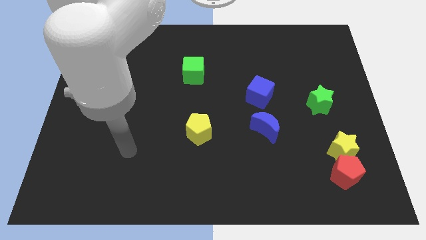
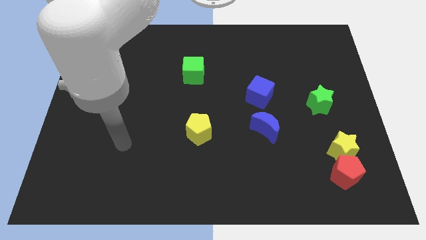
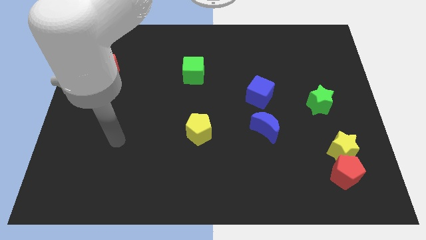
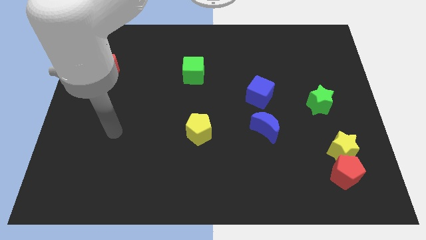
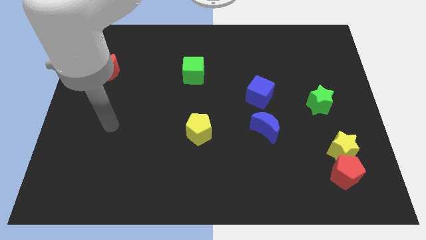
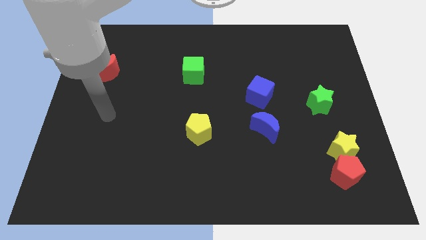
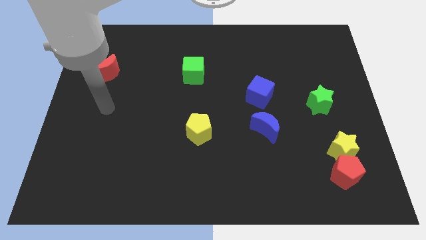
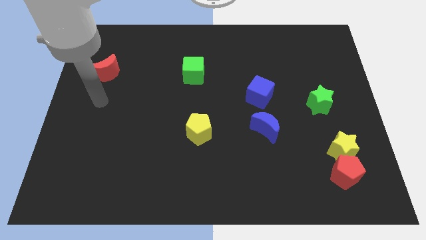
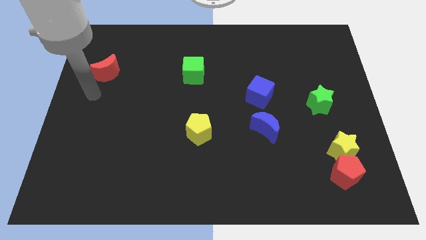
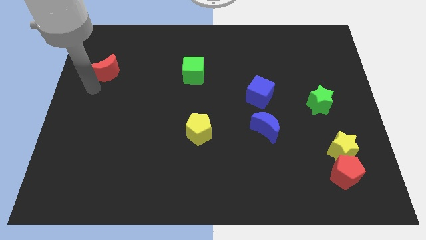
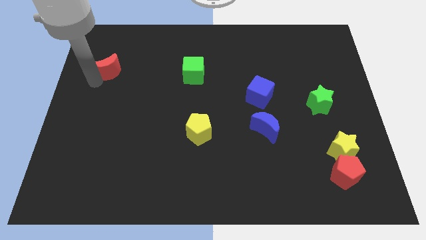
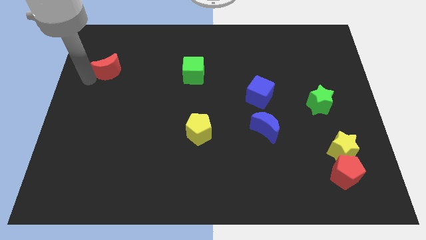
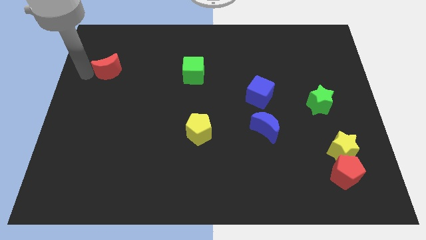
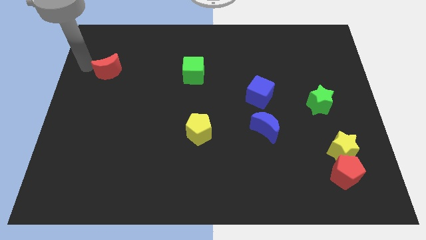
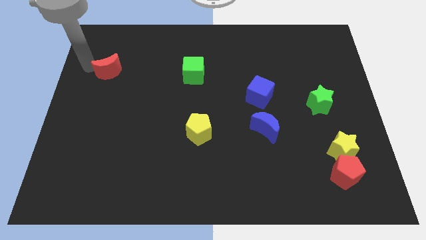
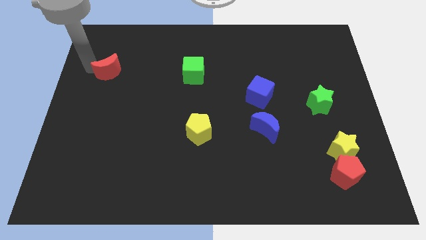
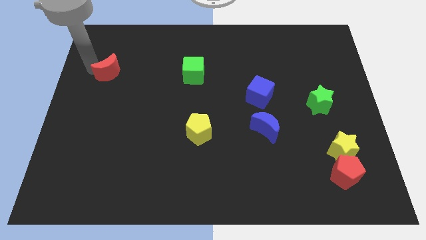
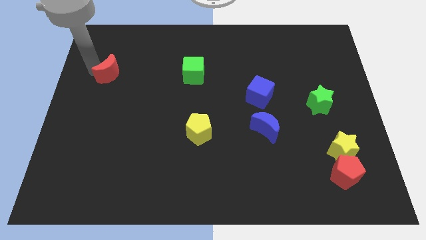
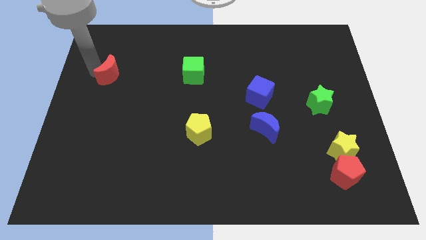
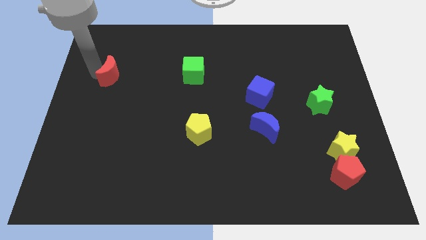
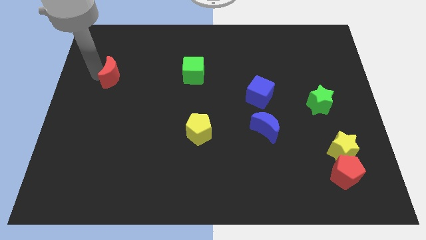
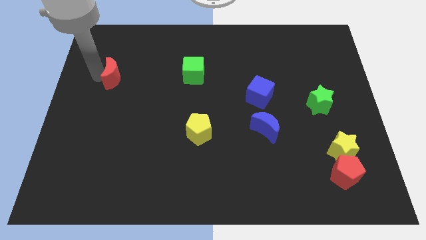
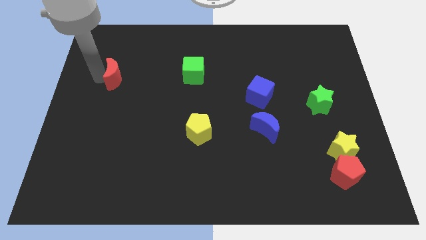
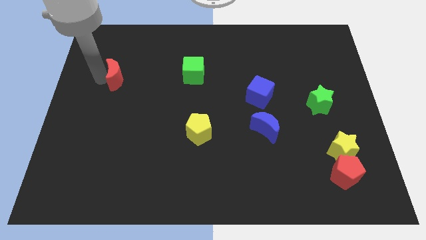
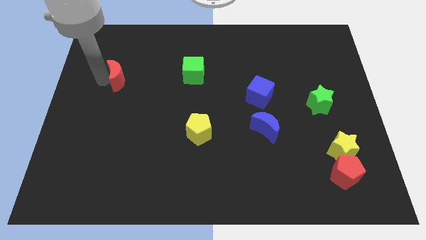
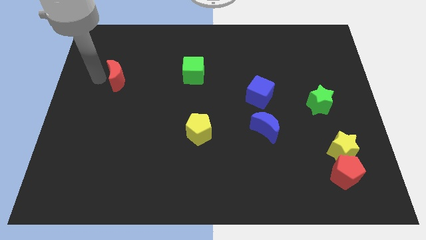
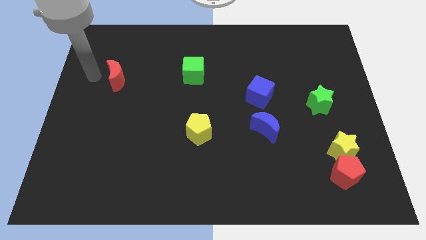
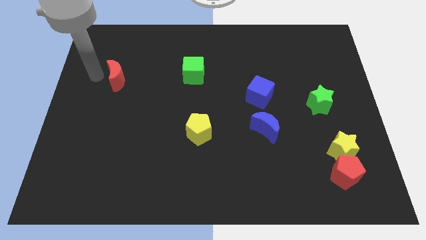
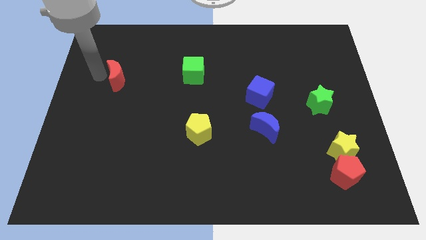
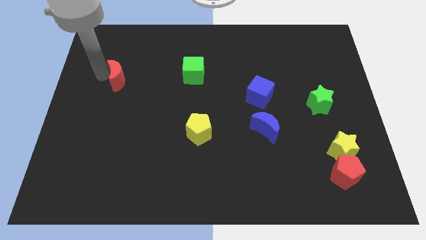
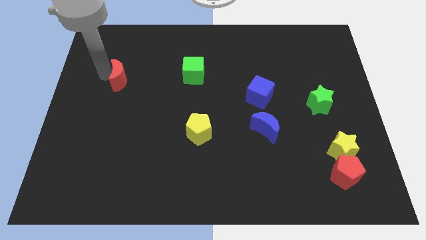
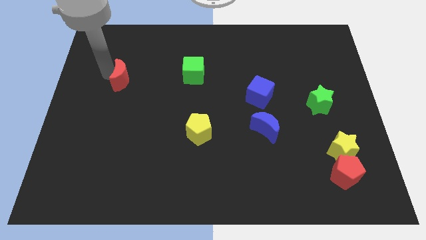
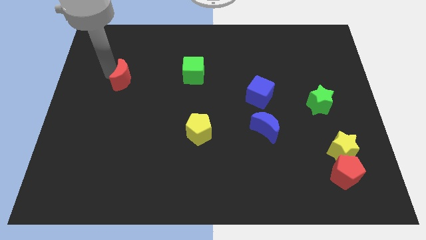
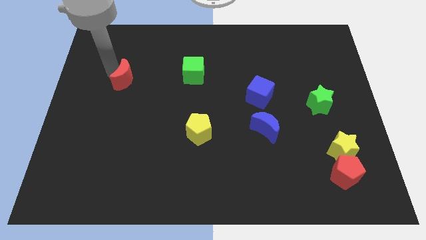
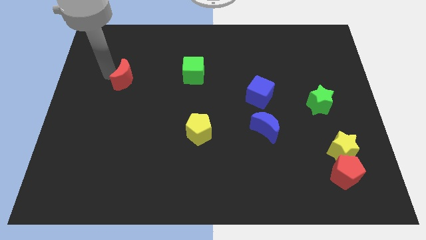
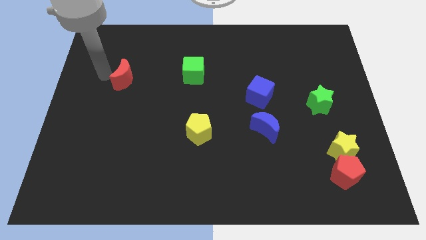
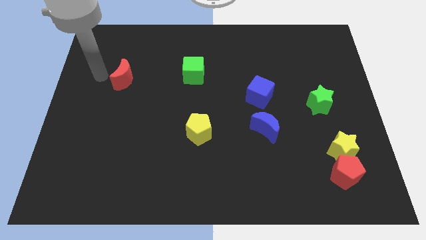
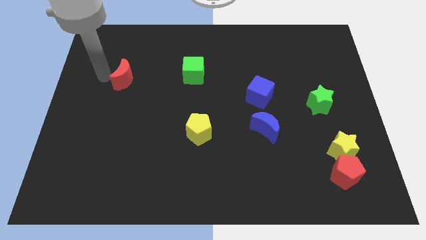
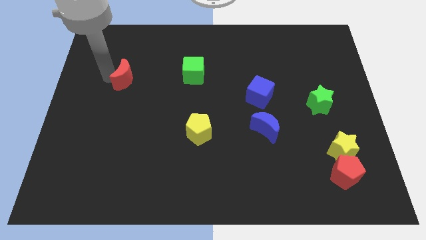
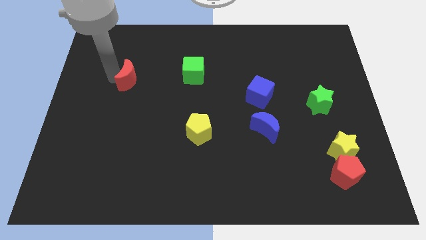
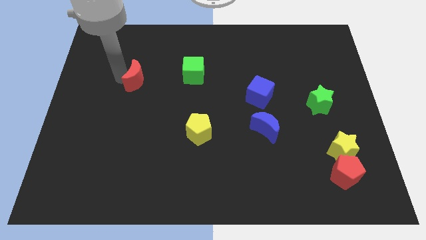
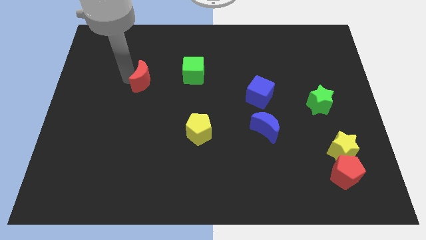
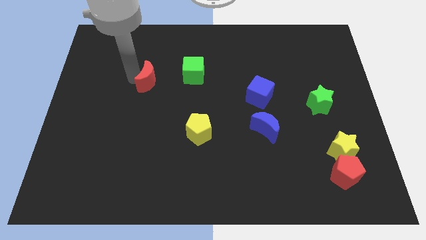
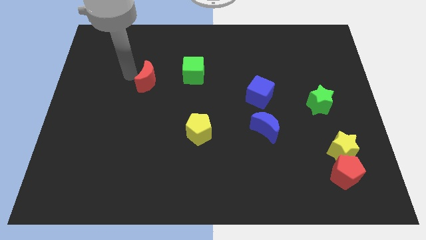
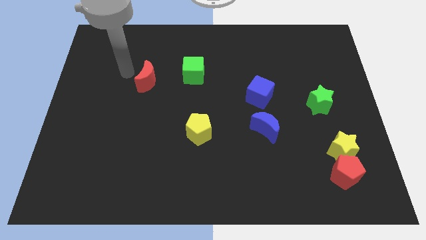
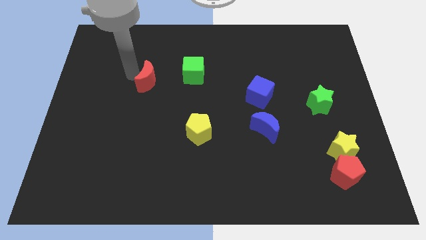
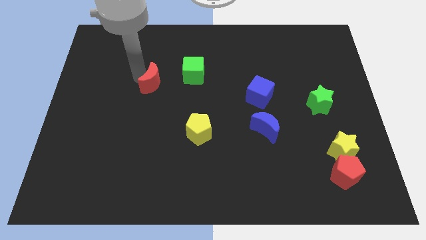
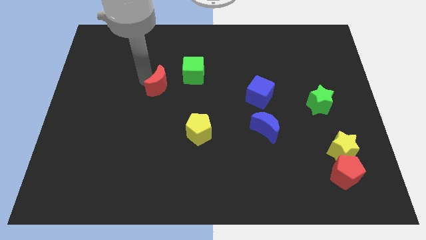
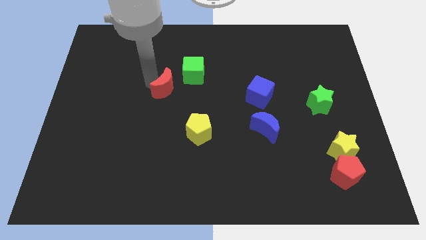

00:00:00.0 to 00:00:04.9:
put the red moon to the center

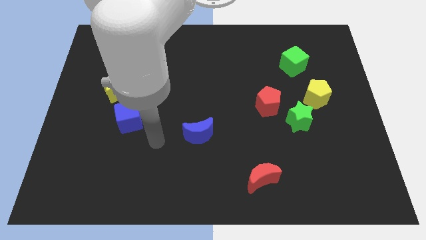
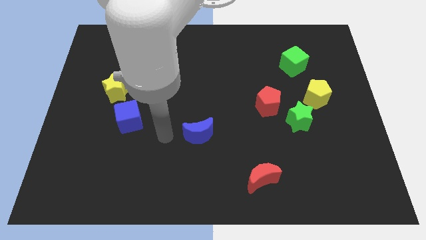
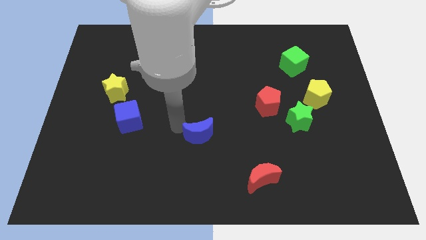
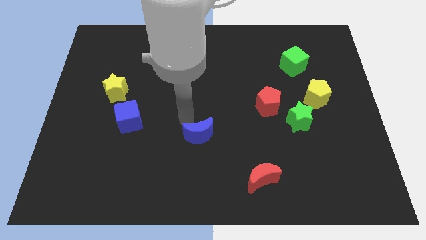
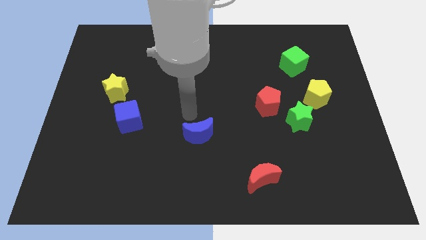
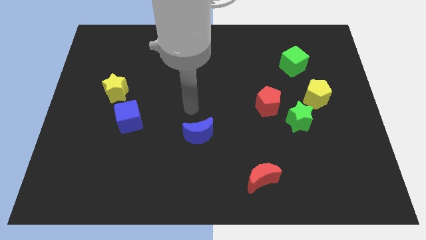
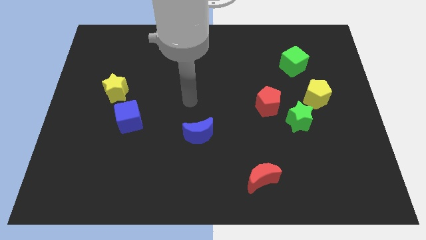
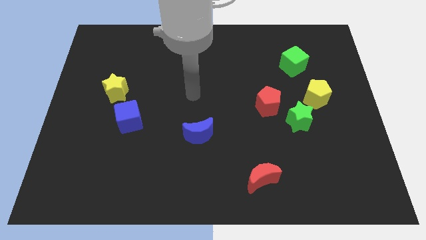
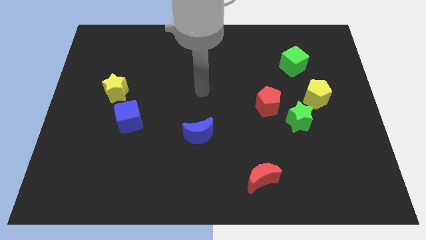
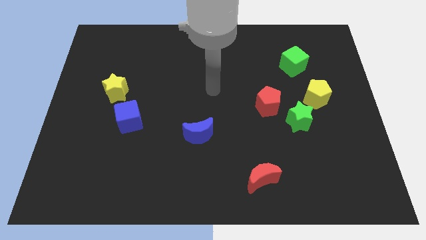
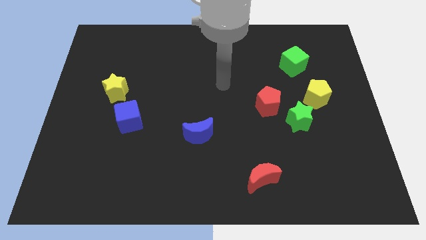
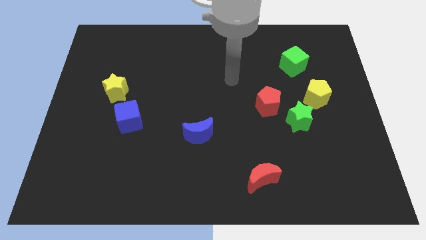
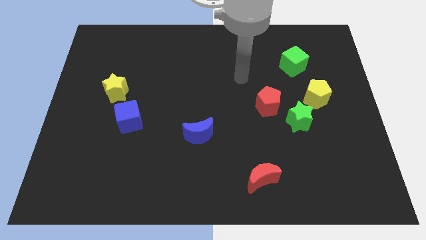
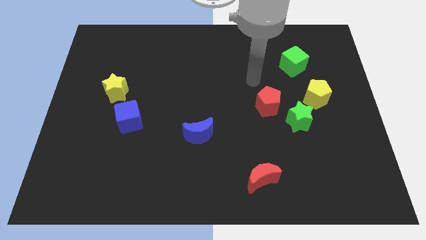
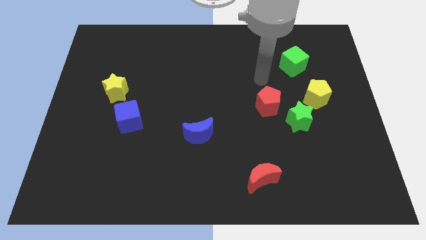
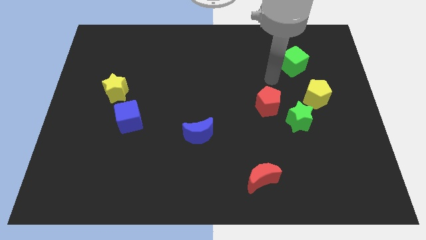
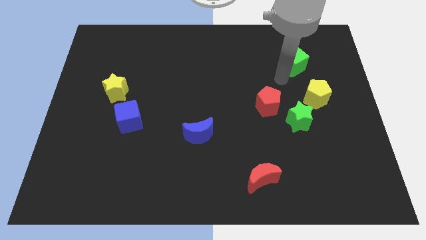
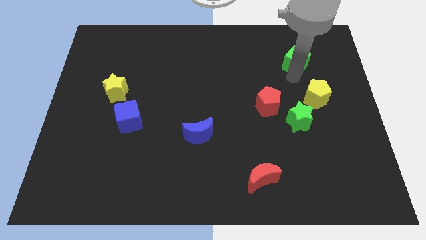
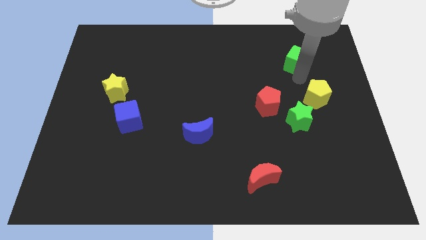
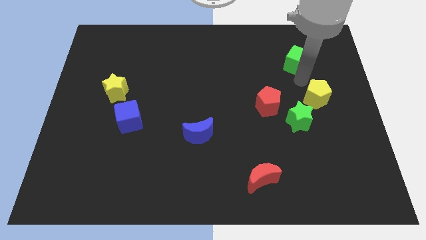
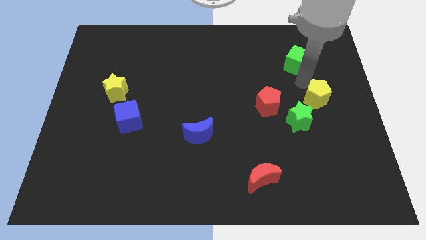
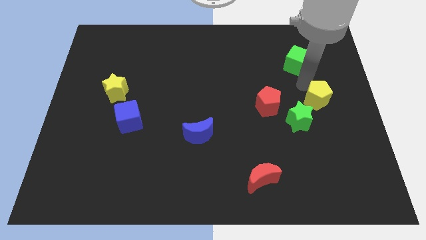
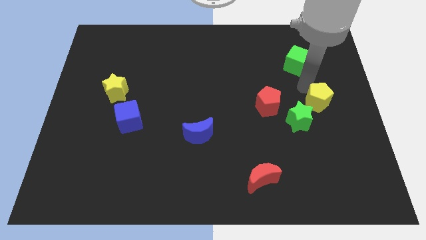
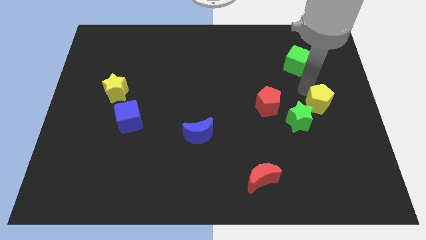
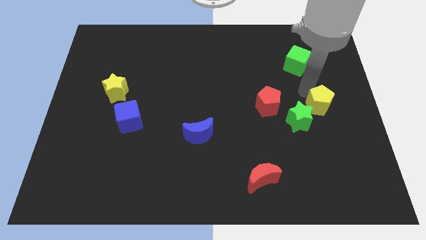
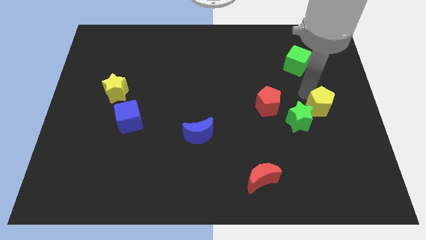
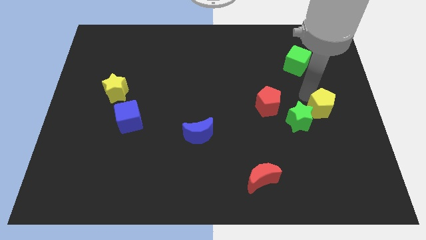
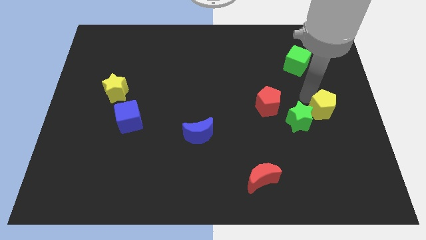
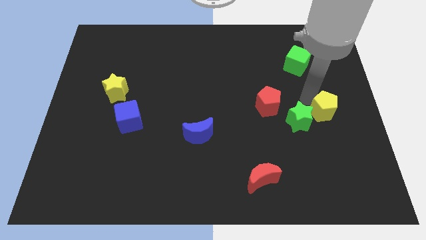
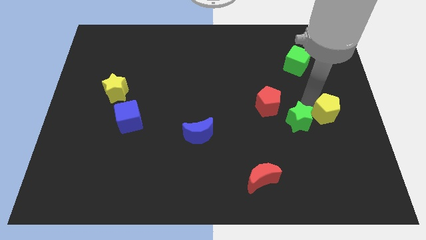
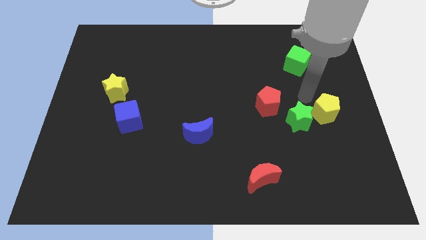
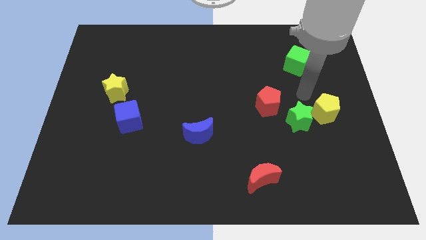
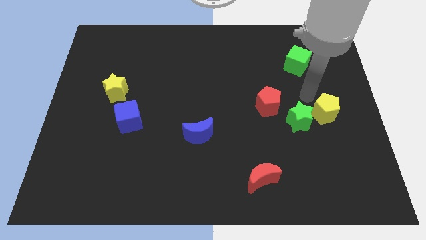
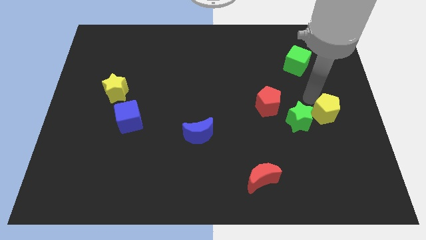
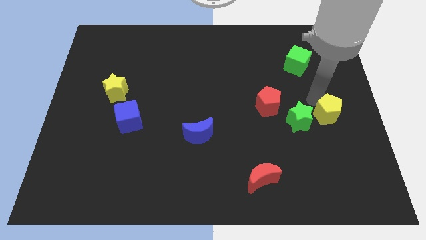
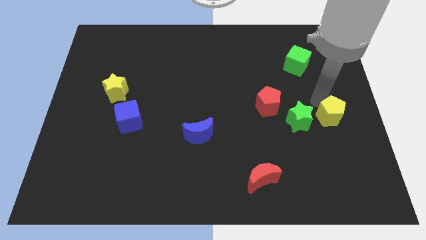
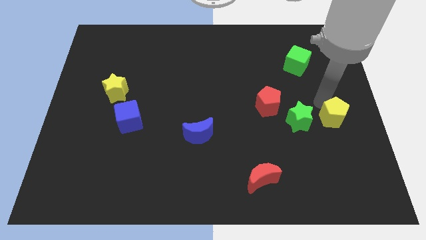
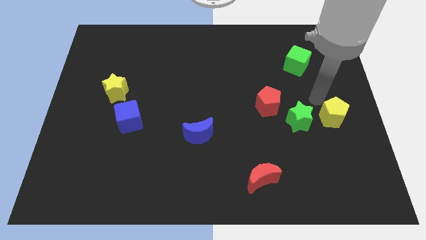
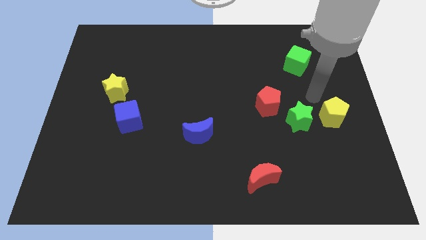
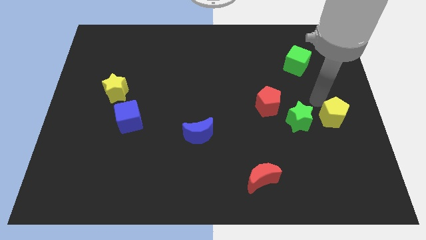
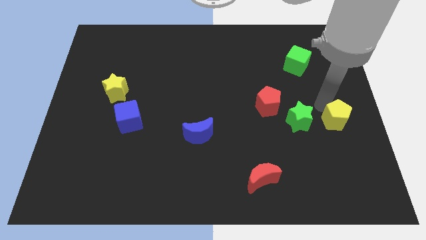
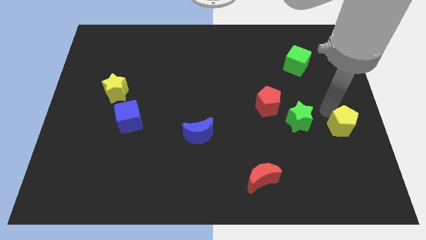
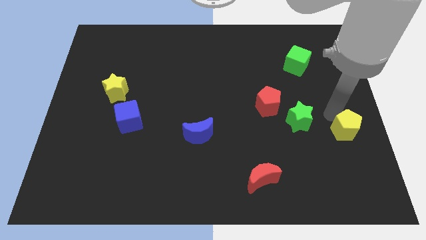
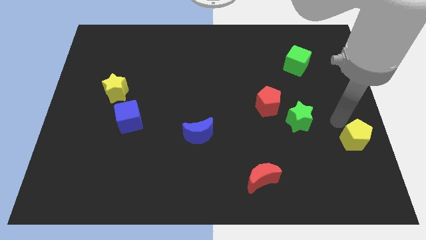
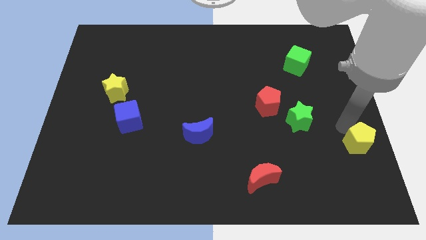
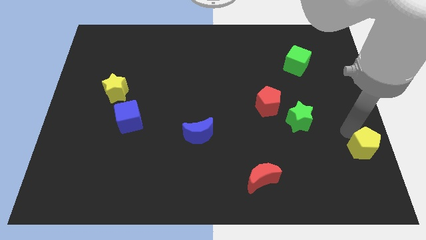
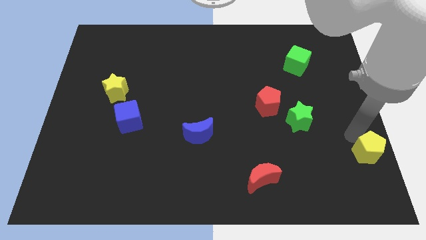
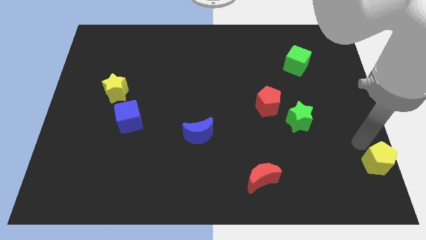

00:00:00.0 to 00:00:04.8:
put the yellow pentagon to the bottom right corner
